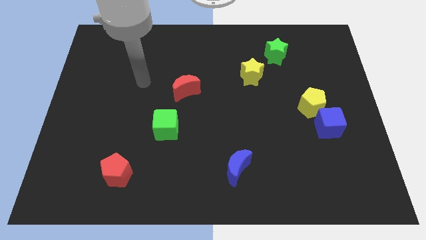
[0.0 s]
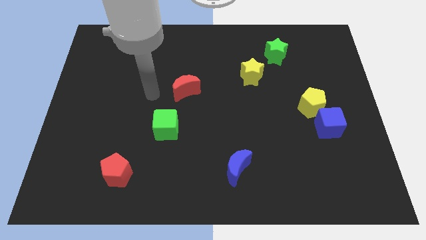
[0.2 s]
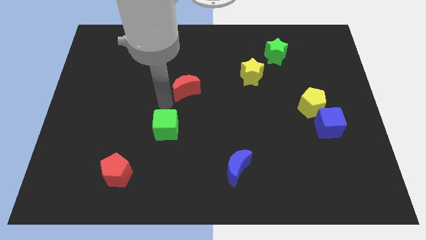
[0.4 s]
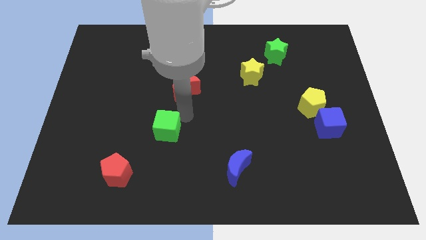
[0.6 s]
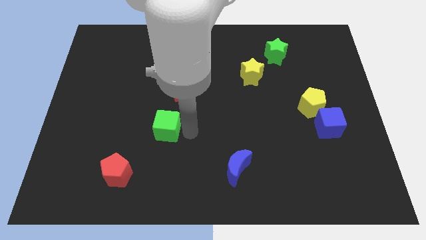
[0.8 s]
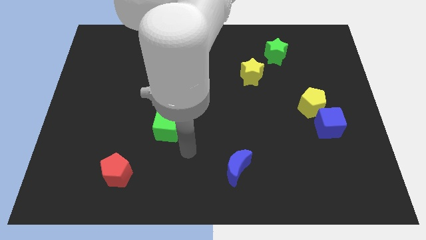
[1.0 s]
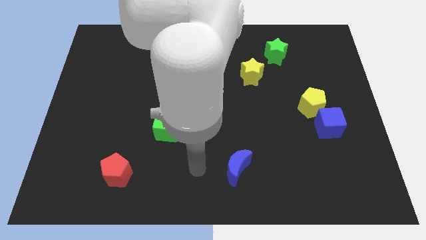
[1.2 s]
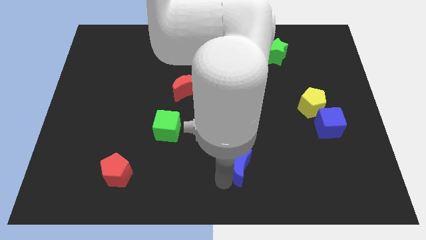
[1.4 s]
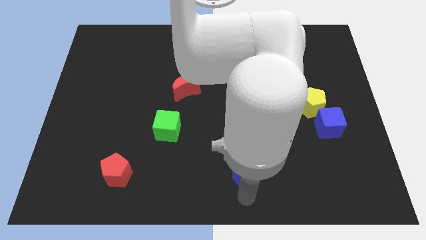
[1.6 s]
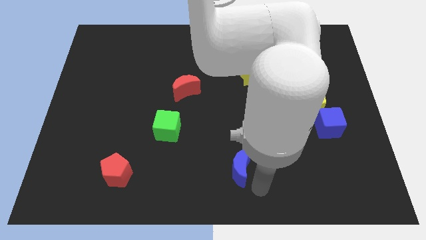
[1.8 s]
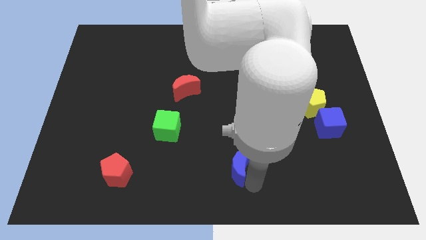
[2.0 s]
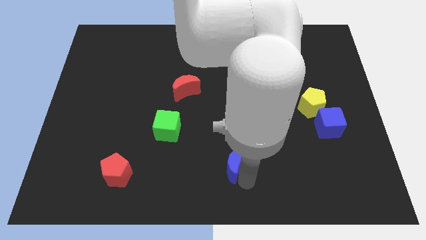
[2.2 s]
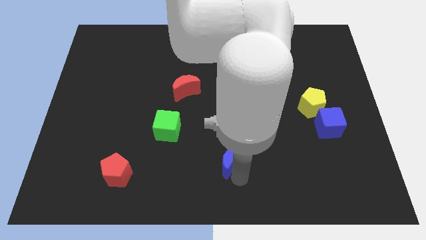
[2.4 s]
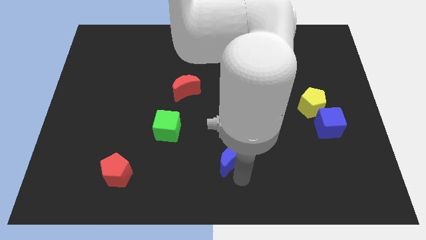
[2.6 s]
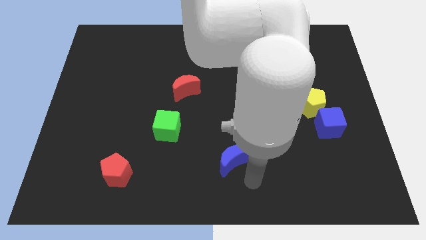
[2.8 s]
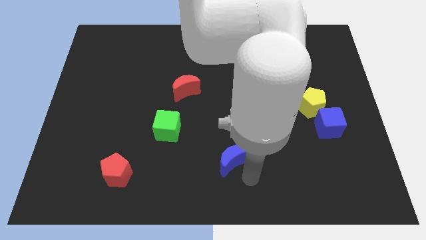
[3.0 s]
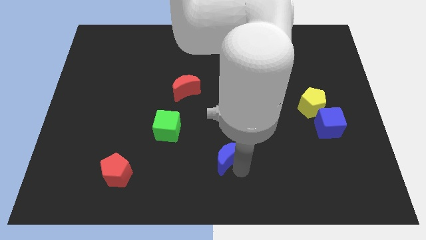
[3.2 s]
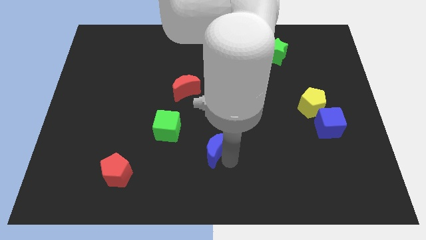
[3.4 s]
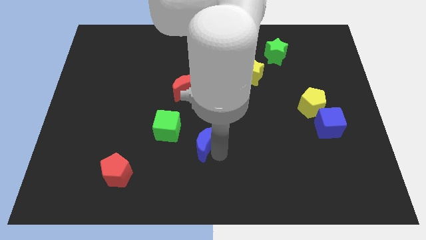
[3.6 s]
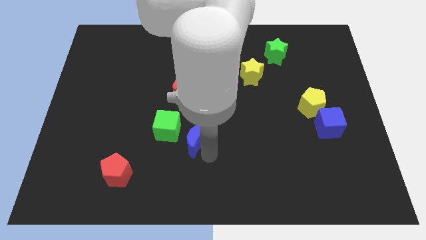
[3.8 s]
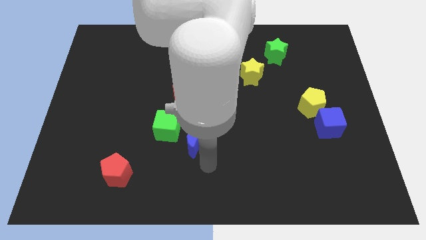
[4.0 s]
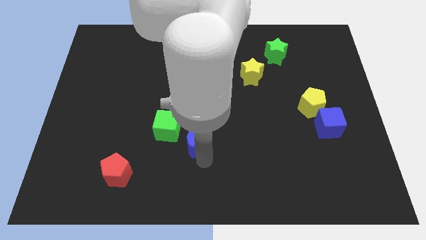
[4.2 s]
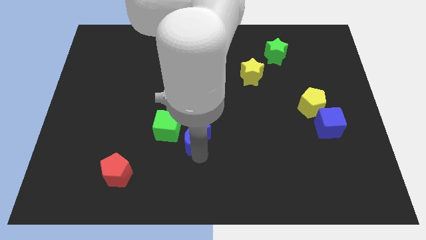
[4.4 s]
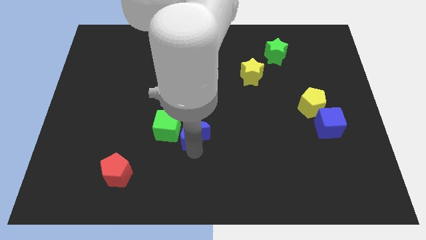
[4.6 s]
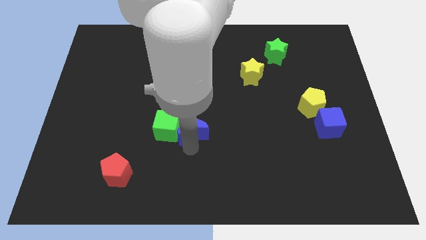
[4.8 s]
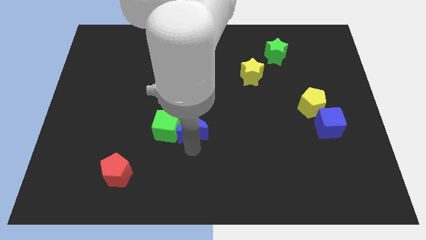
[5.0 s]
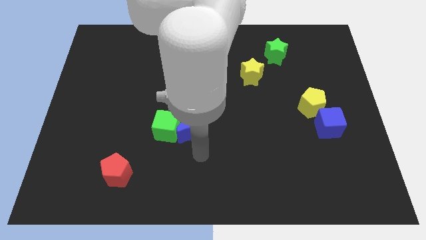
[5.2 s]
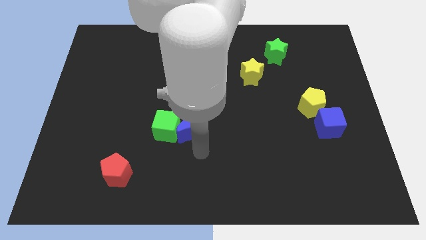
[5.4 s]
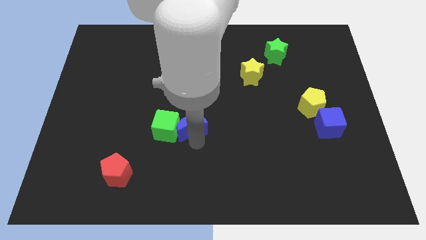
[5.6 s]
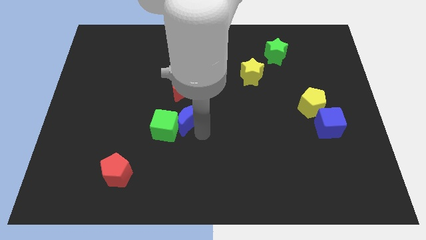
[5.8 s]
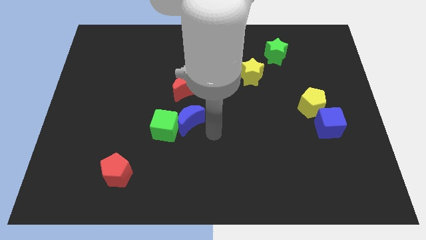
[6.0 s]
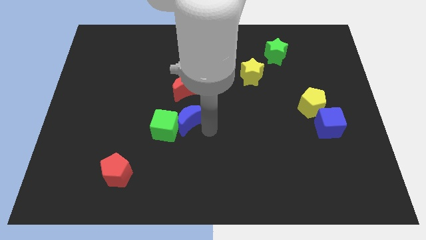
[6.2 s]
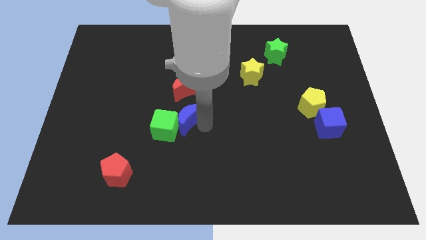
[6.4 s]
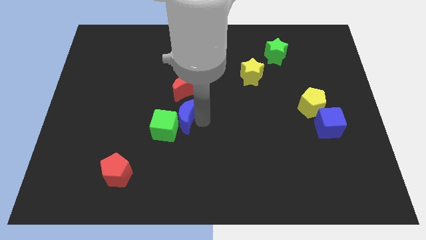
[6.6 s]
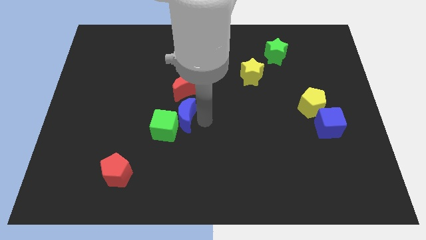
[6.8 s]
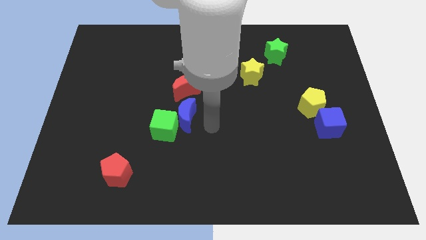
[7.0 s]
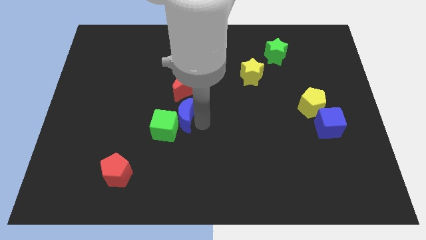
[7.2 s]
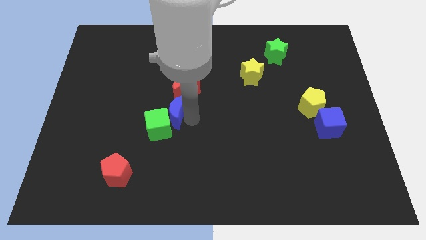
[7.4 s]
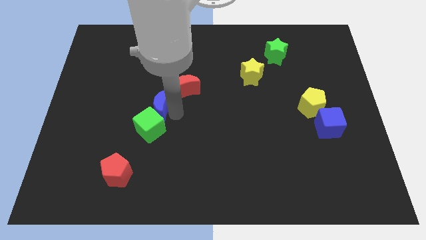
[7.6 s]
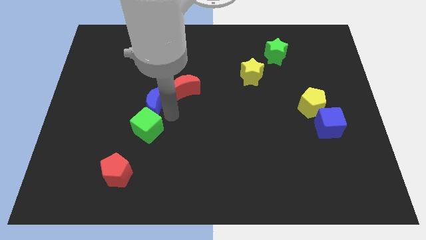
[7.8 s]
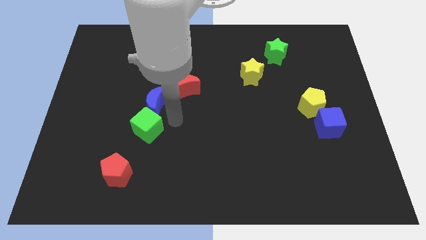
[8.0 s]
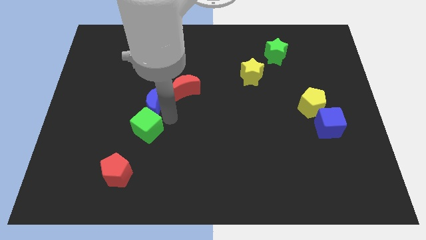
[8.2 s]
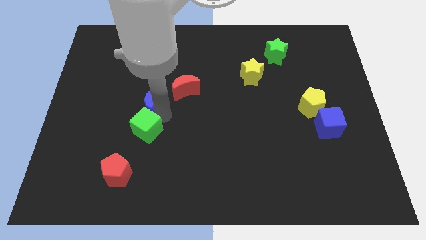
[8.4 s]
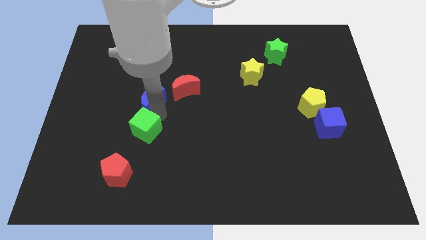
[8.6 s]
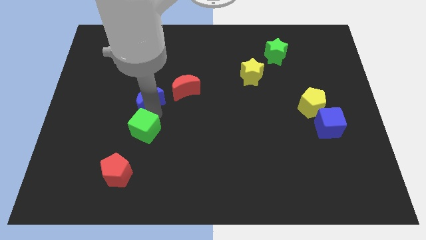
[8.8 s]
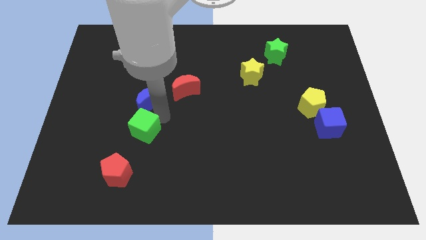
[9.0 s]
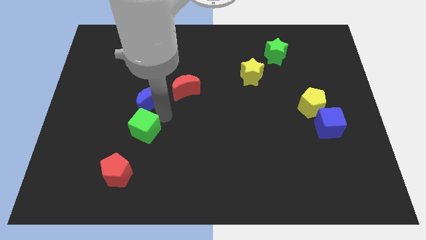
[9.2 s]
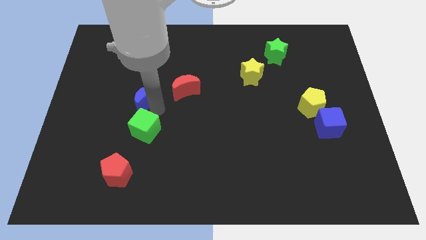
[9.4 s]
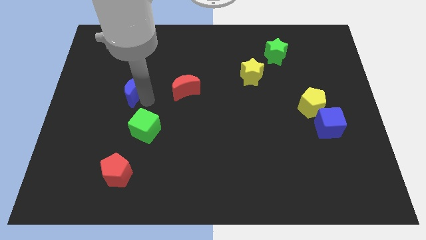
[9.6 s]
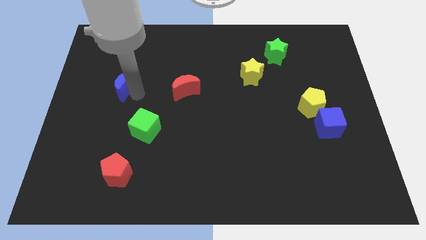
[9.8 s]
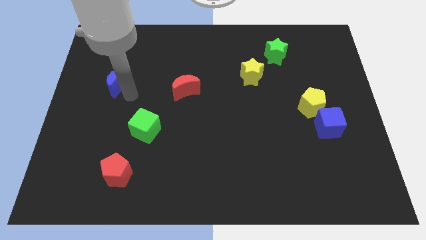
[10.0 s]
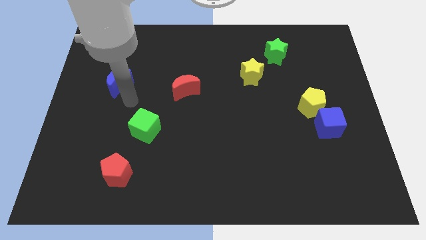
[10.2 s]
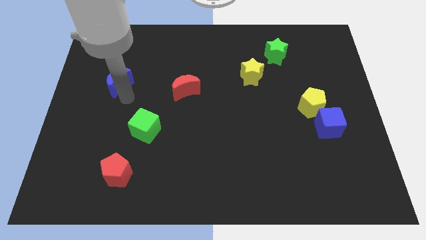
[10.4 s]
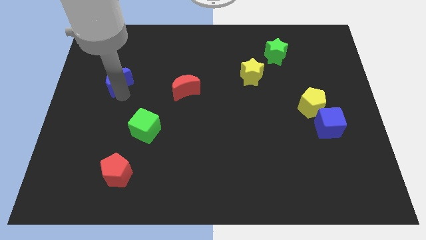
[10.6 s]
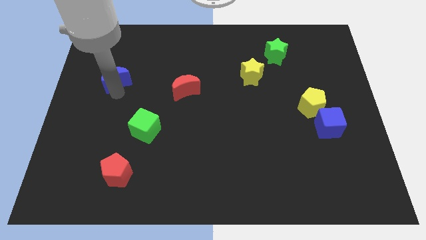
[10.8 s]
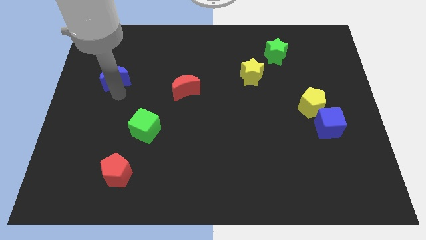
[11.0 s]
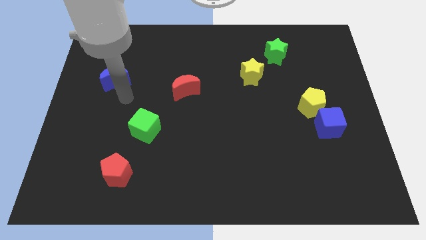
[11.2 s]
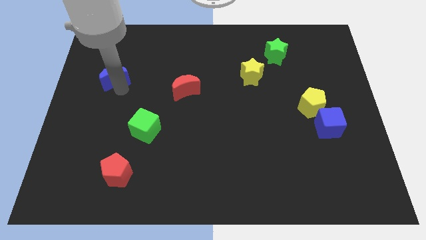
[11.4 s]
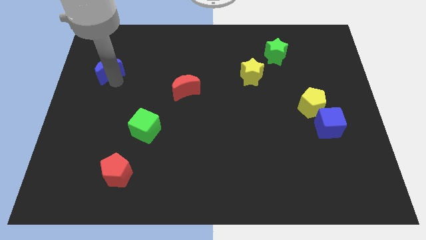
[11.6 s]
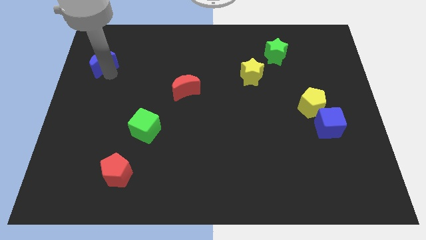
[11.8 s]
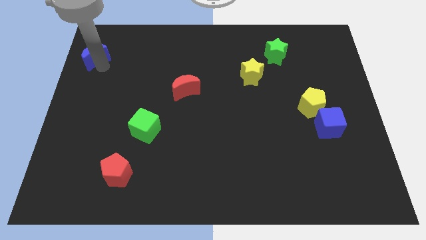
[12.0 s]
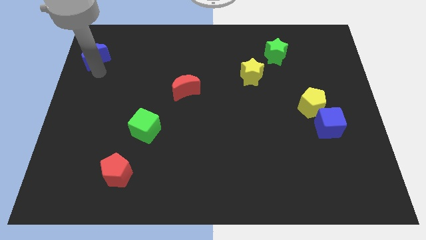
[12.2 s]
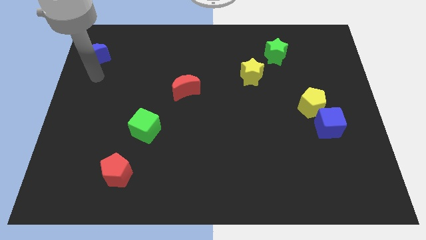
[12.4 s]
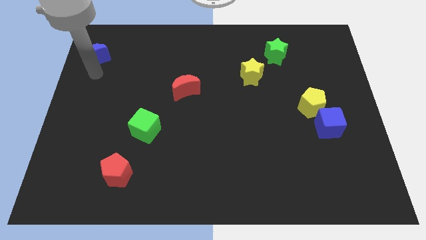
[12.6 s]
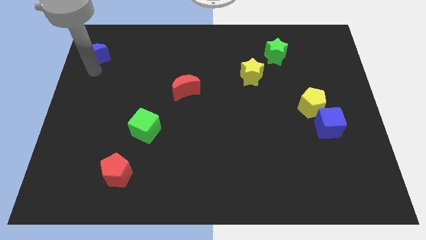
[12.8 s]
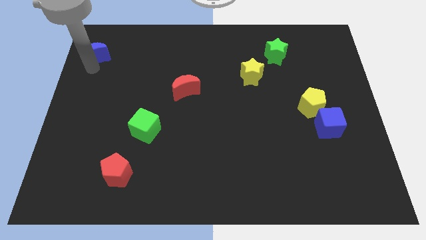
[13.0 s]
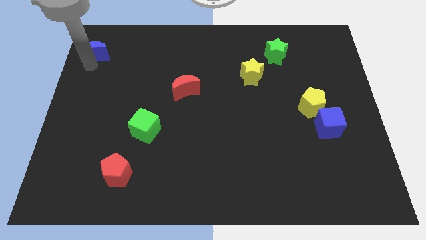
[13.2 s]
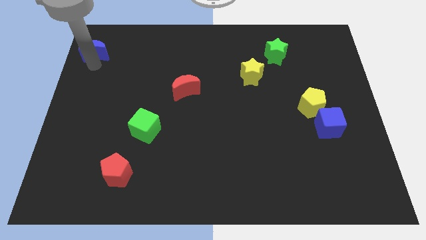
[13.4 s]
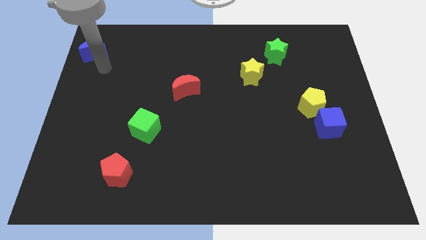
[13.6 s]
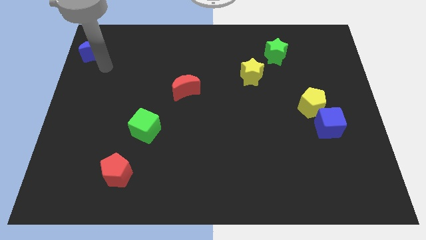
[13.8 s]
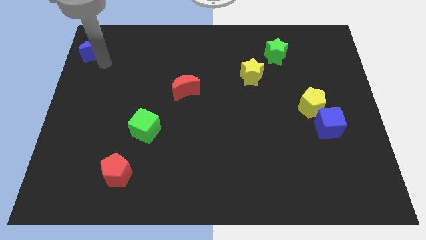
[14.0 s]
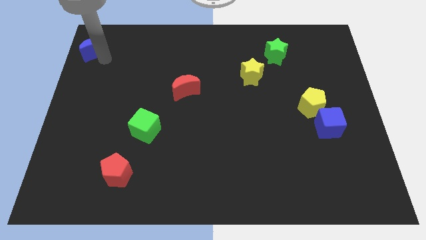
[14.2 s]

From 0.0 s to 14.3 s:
push the blue moon to the top left
